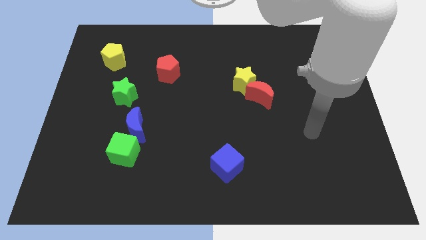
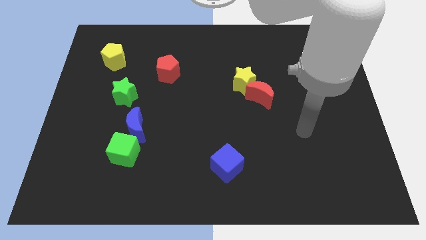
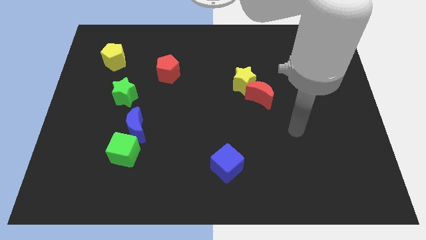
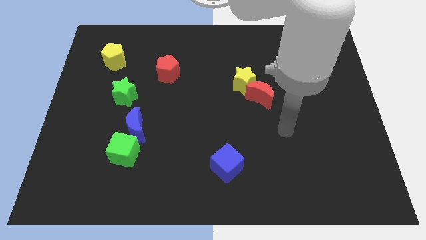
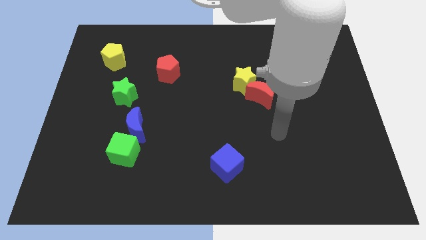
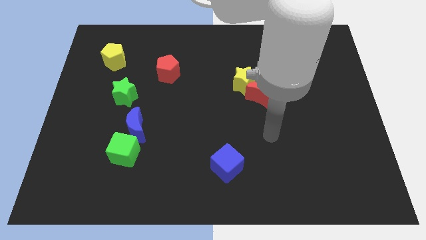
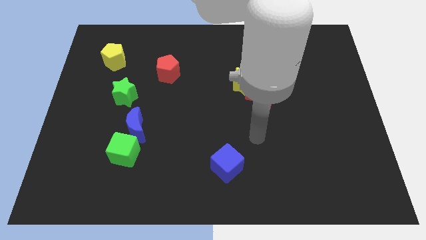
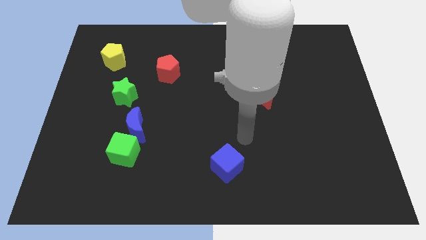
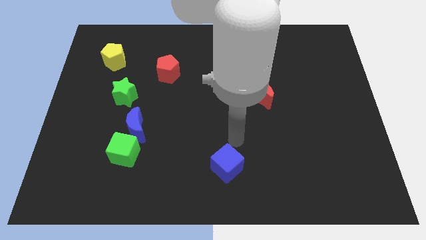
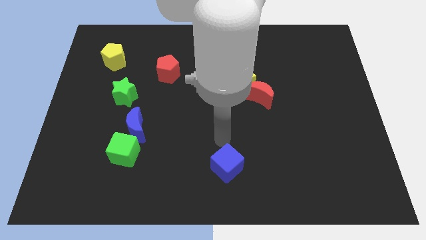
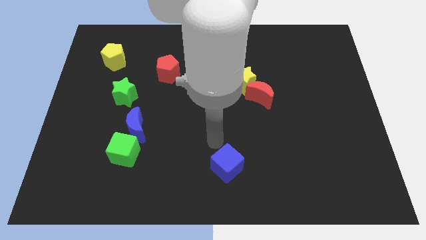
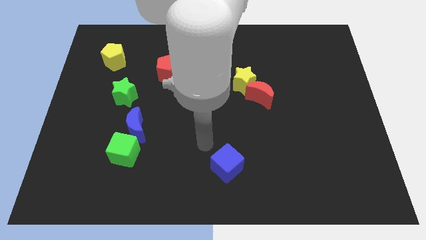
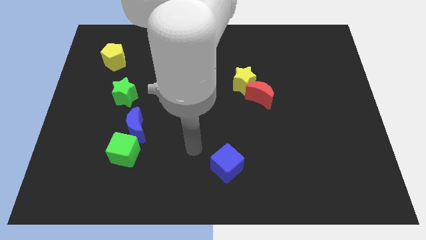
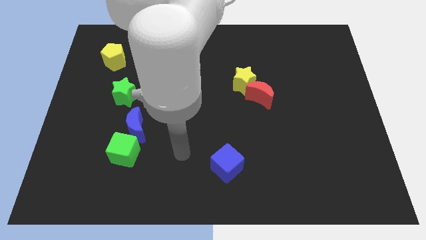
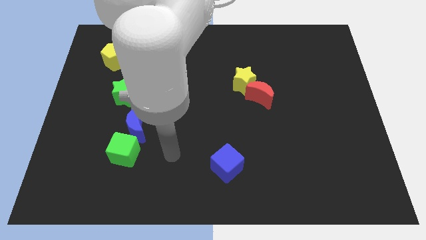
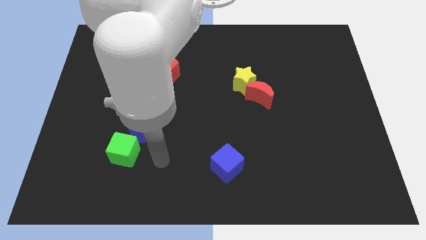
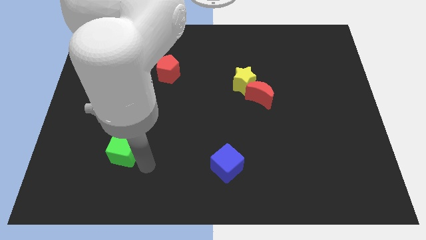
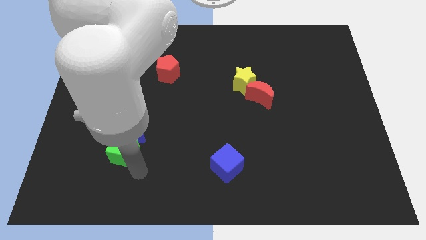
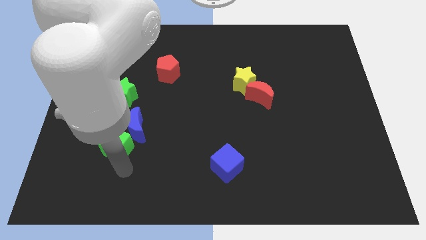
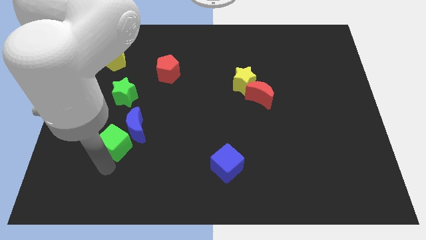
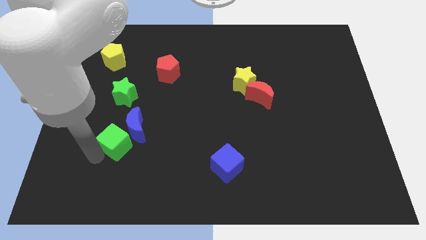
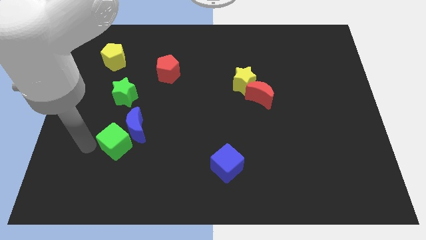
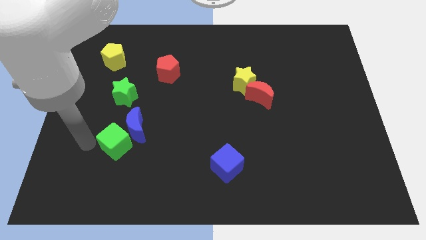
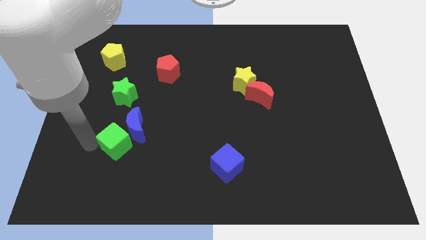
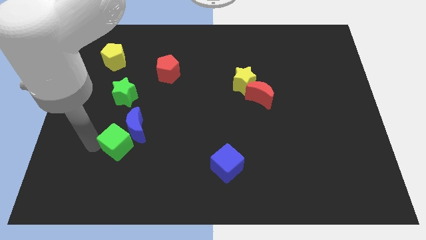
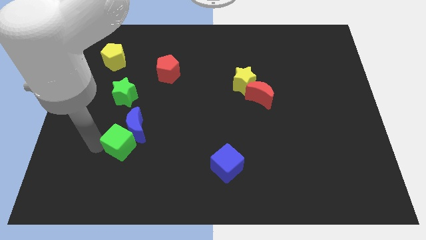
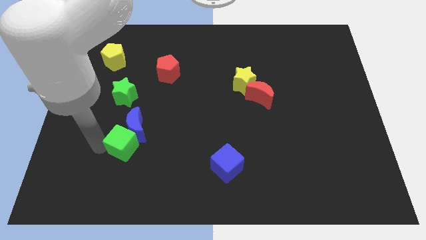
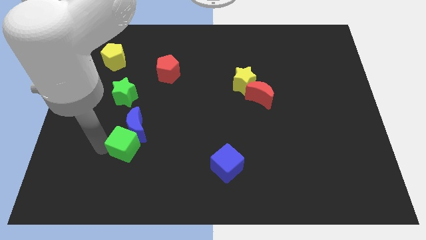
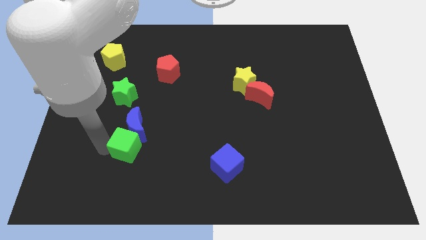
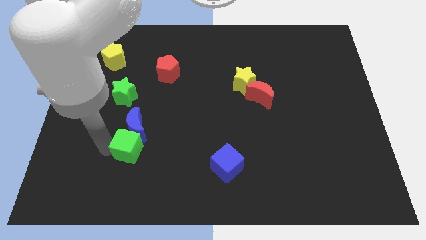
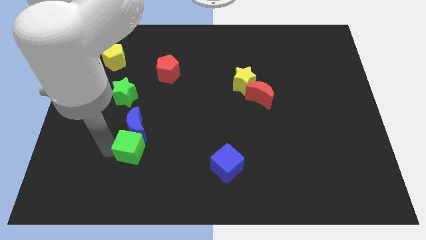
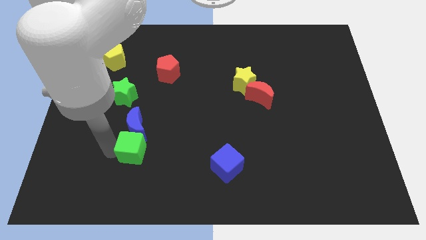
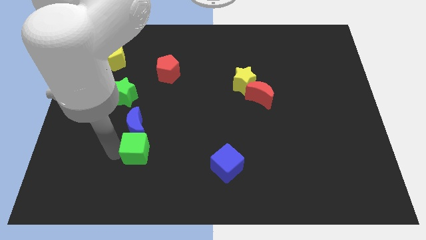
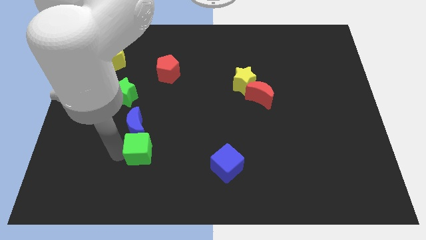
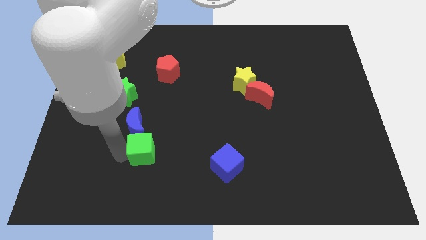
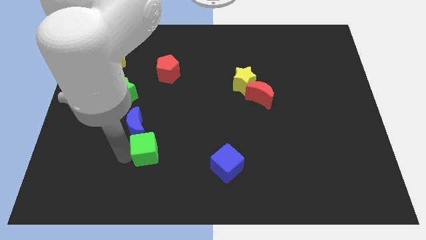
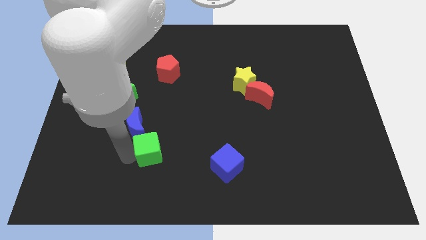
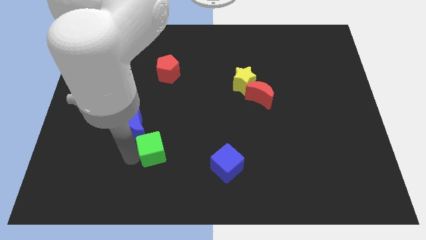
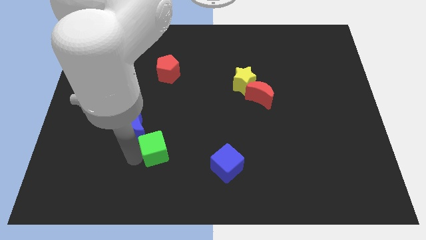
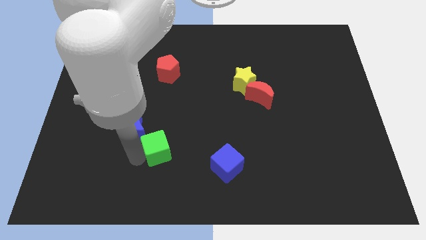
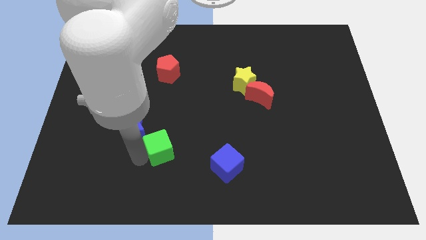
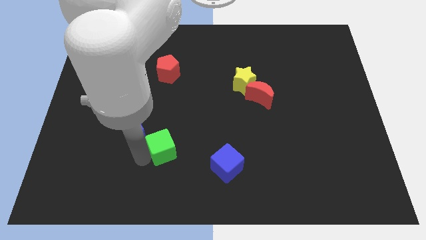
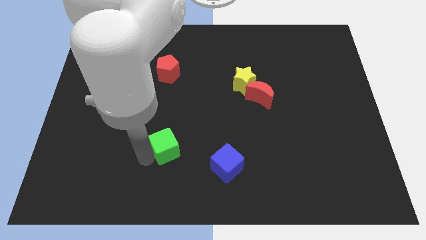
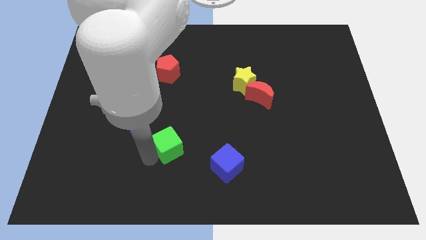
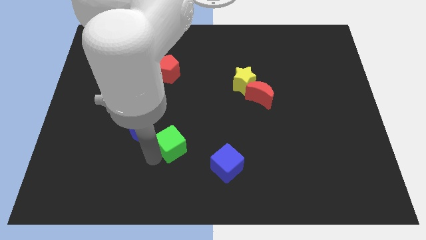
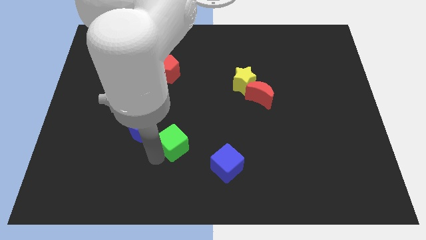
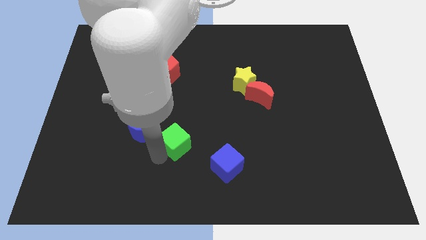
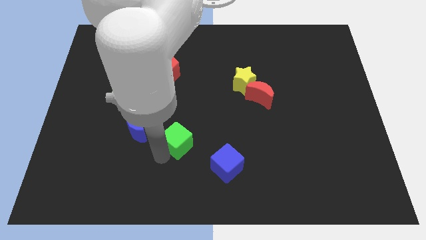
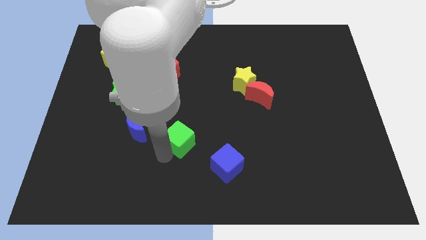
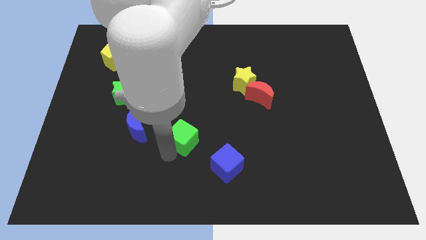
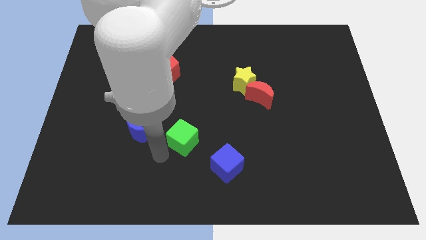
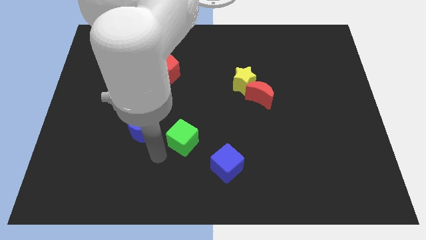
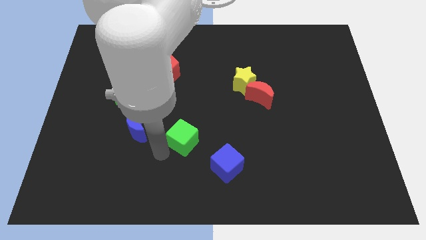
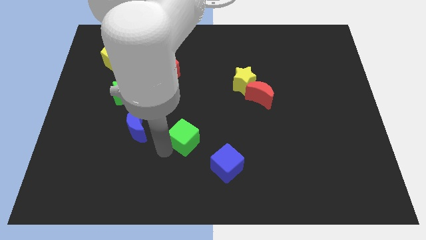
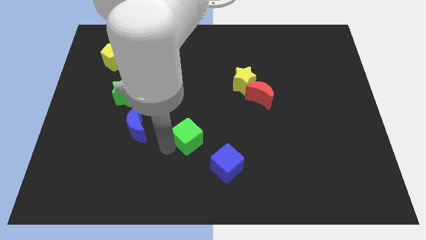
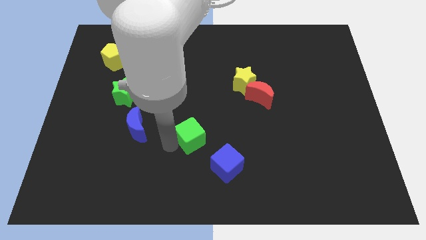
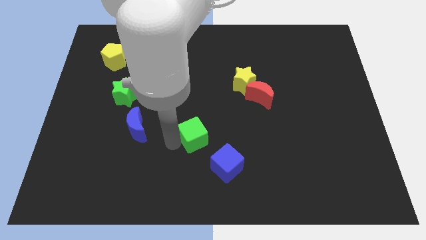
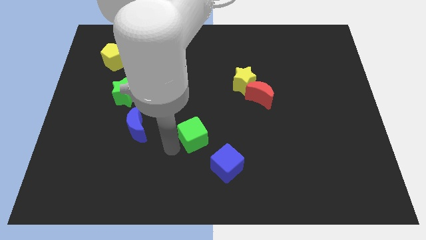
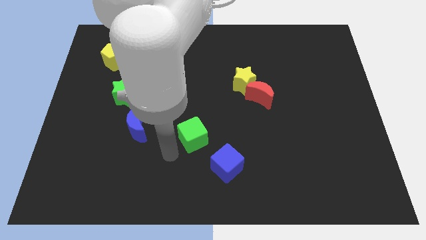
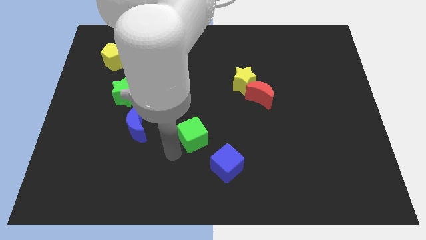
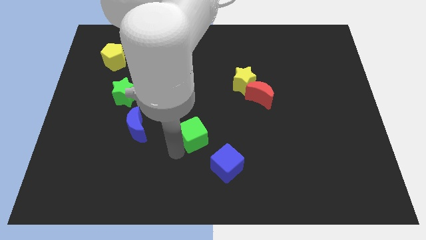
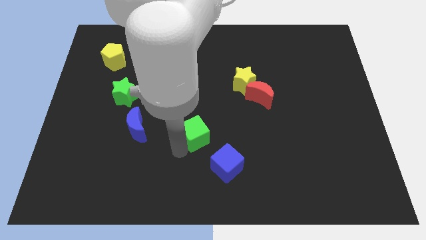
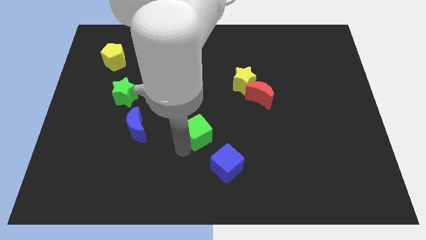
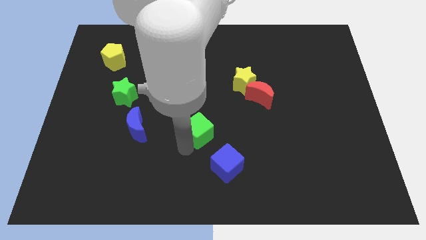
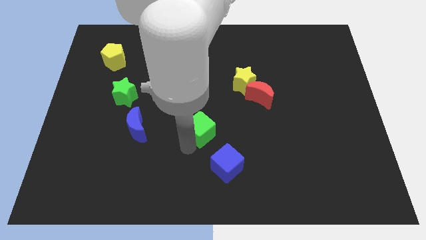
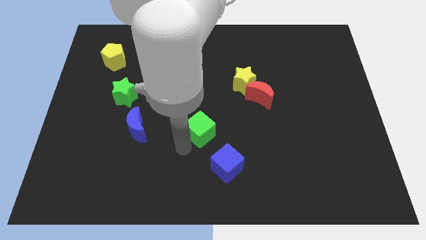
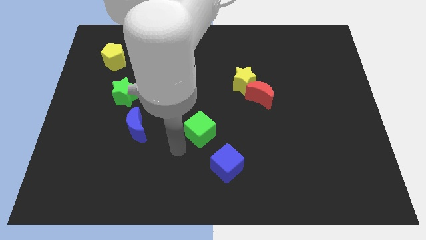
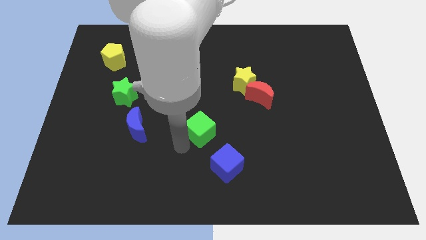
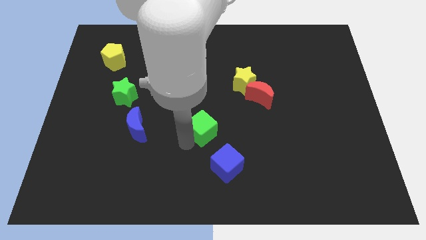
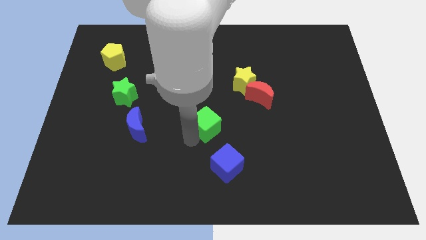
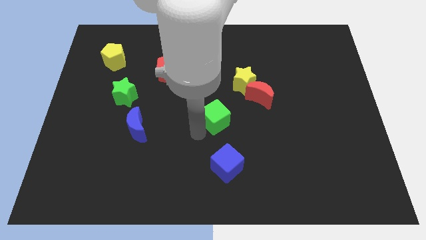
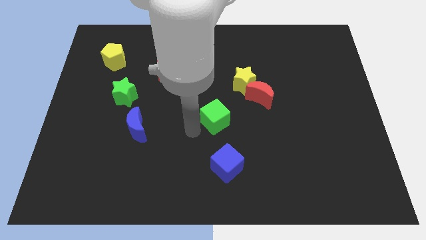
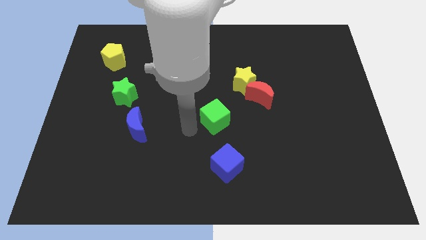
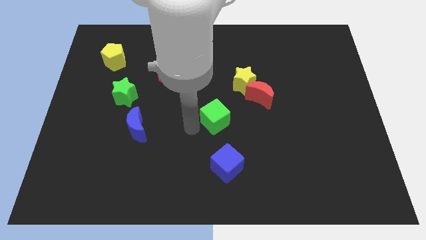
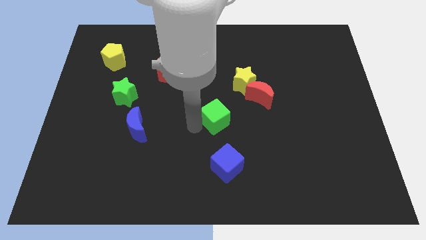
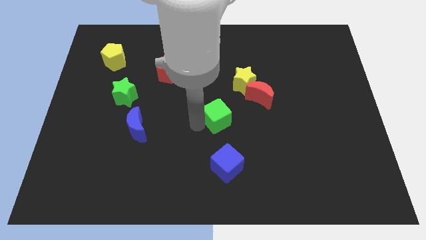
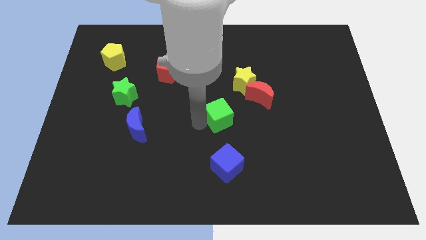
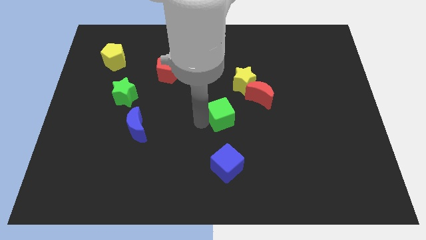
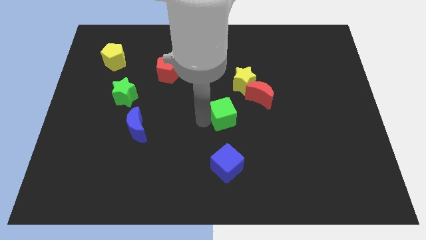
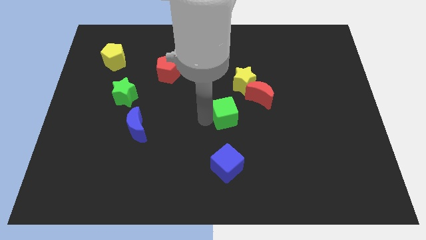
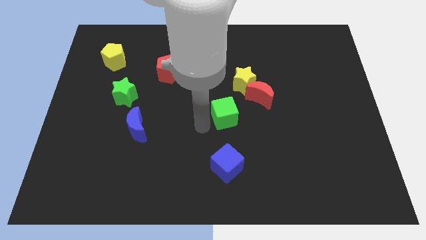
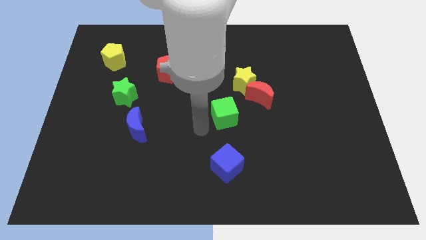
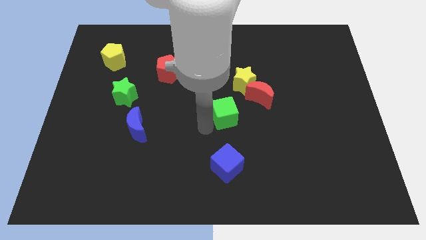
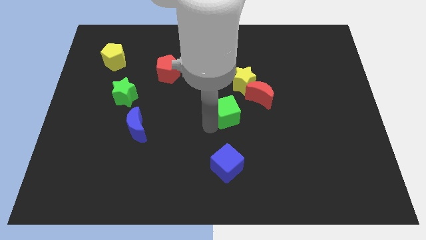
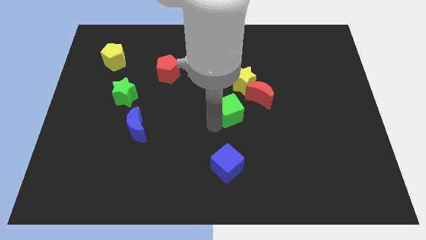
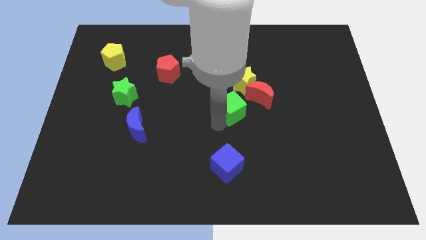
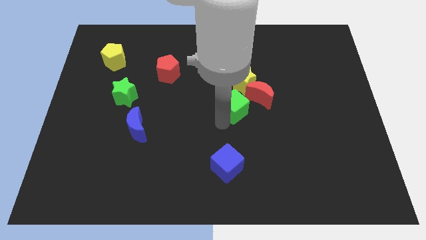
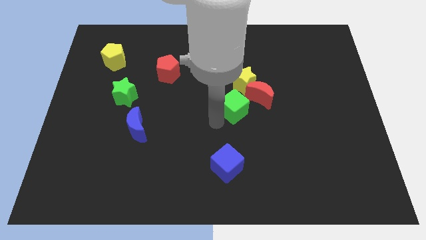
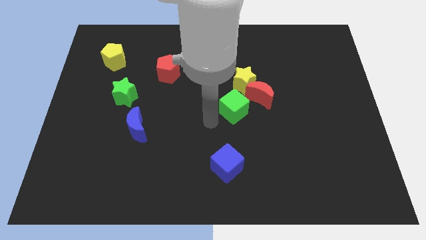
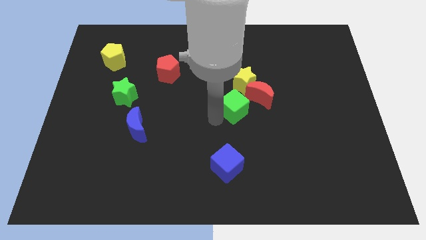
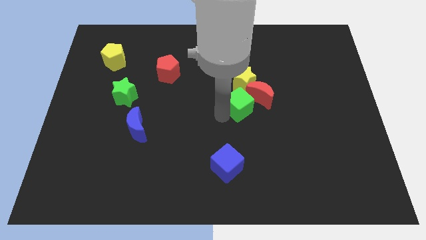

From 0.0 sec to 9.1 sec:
put the green cube close to the red moon
